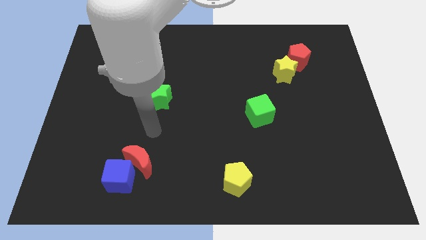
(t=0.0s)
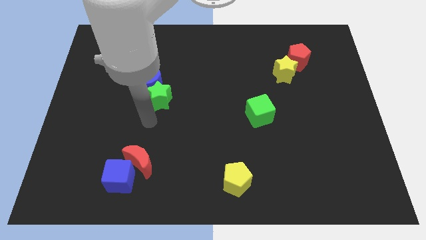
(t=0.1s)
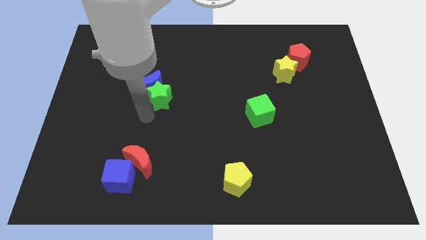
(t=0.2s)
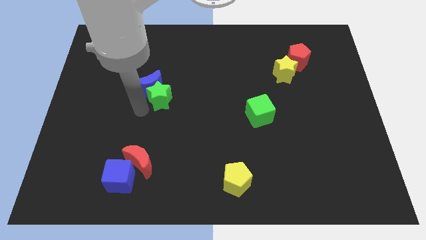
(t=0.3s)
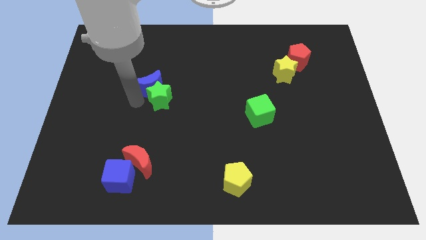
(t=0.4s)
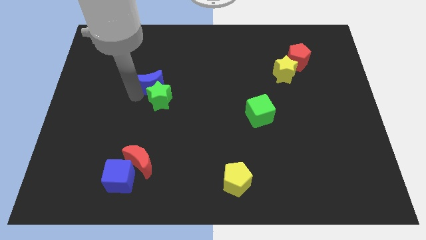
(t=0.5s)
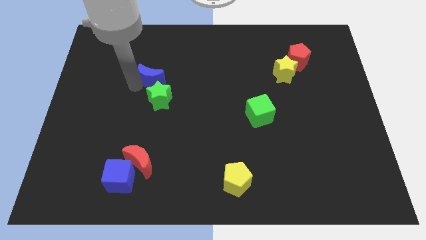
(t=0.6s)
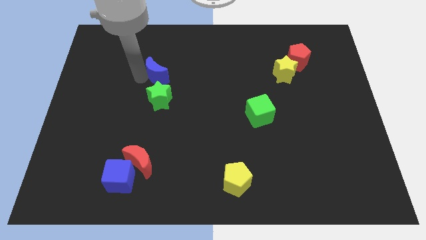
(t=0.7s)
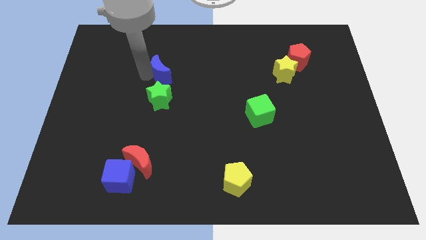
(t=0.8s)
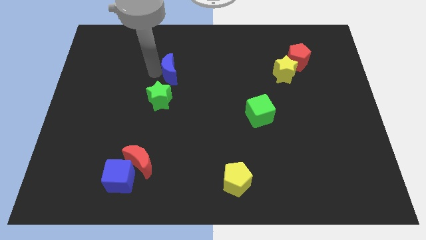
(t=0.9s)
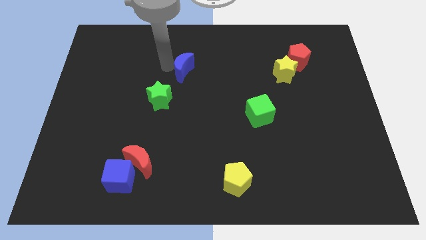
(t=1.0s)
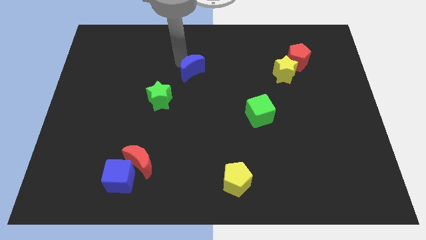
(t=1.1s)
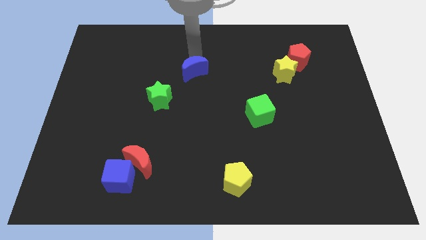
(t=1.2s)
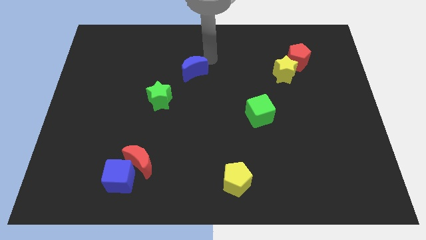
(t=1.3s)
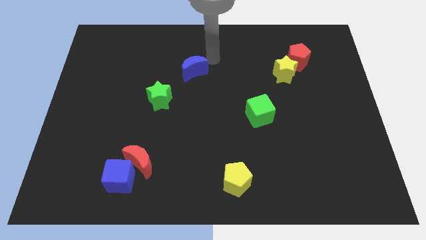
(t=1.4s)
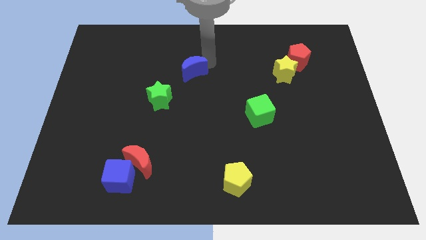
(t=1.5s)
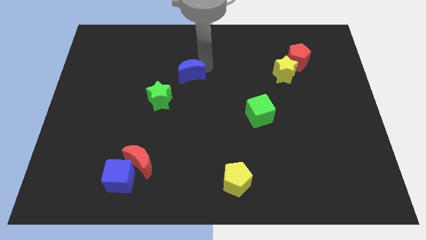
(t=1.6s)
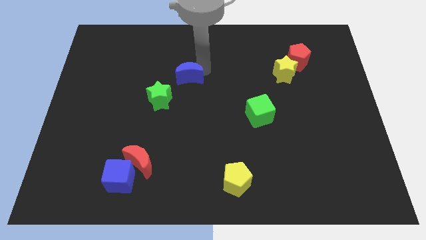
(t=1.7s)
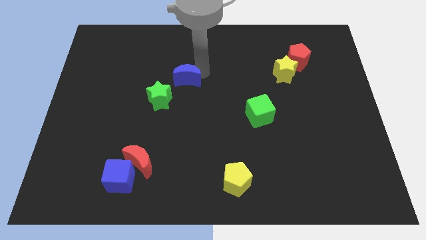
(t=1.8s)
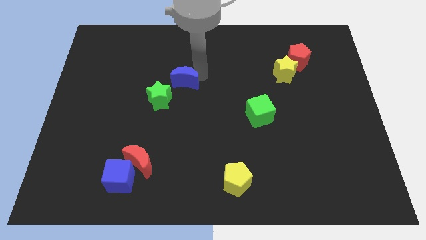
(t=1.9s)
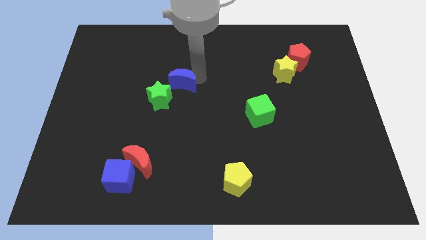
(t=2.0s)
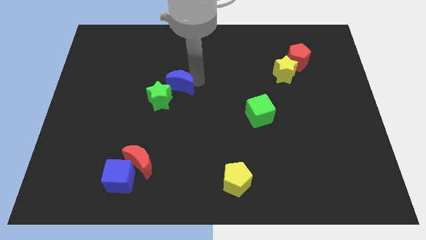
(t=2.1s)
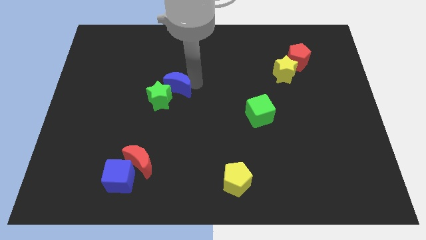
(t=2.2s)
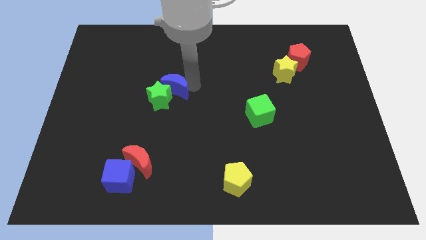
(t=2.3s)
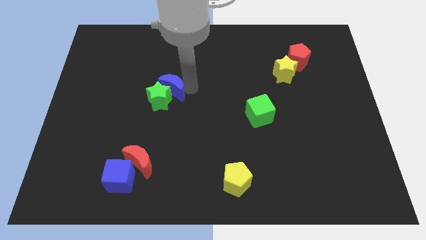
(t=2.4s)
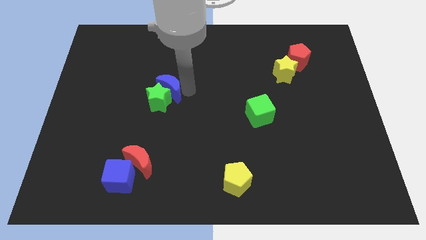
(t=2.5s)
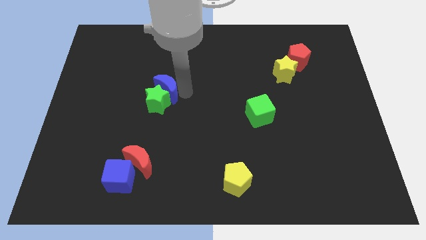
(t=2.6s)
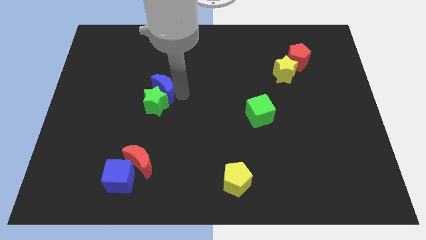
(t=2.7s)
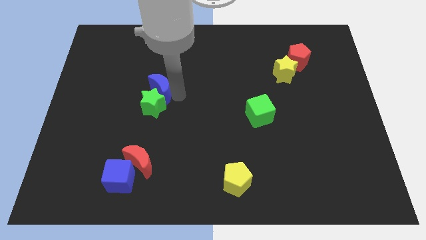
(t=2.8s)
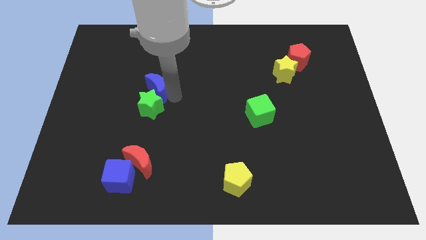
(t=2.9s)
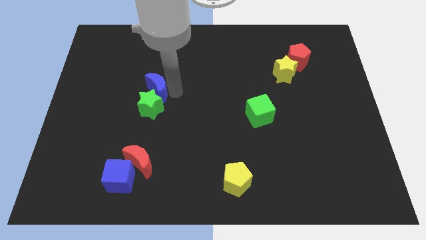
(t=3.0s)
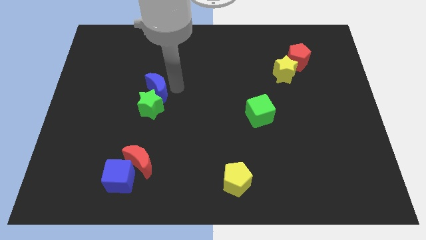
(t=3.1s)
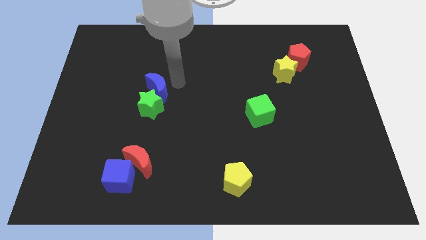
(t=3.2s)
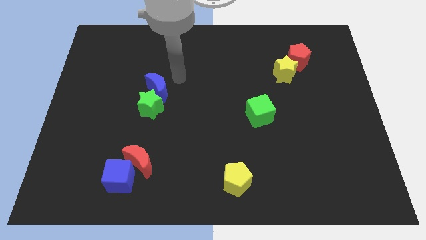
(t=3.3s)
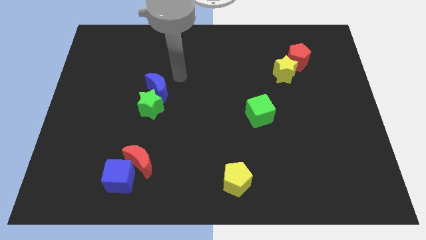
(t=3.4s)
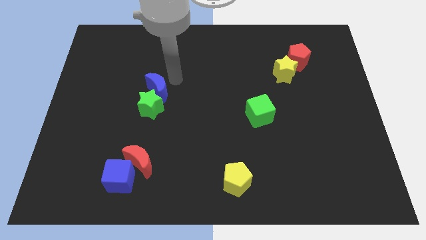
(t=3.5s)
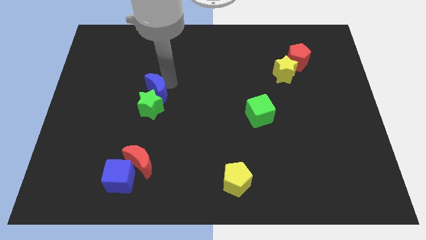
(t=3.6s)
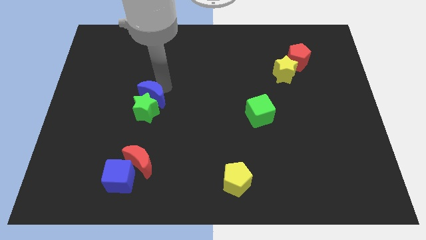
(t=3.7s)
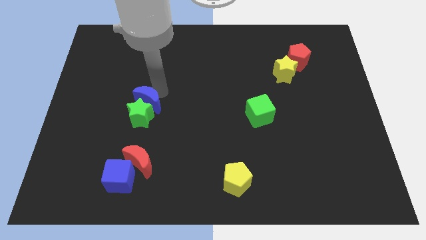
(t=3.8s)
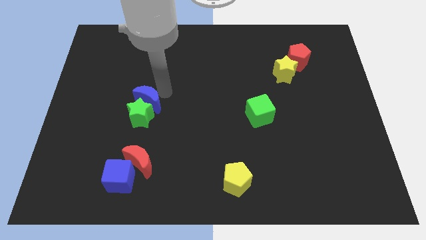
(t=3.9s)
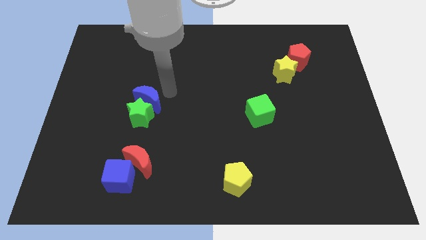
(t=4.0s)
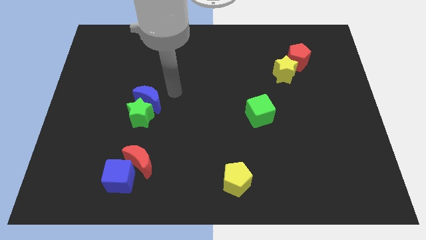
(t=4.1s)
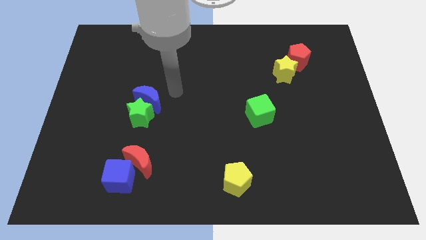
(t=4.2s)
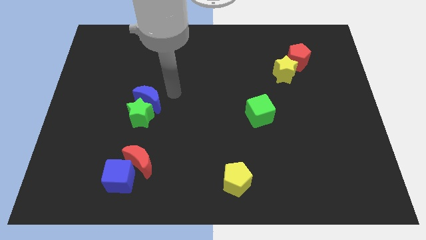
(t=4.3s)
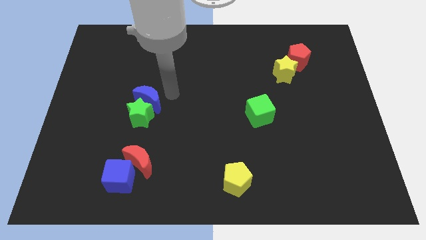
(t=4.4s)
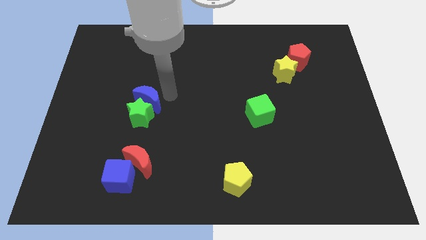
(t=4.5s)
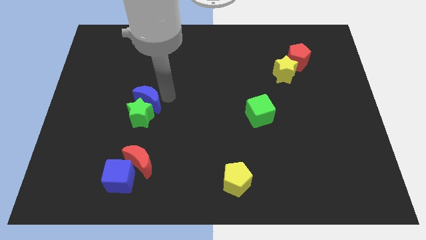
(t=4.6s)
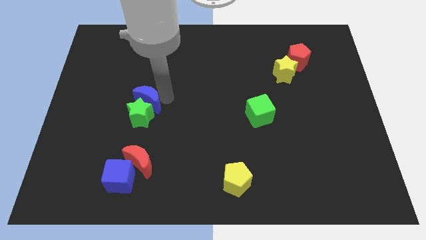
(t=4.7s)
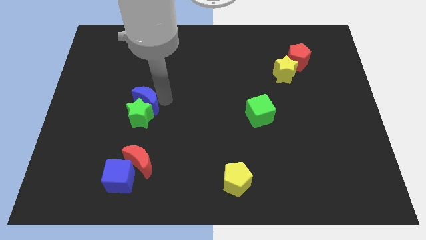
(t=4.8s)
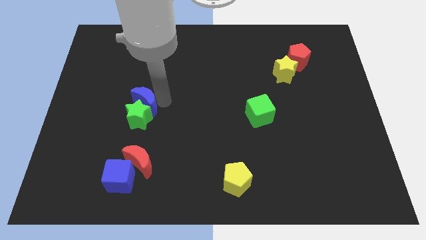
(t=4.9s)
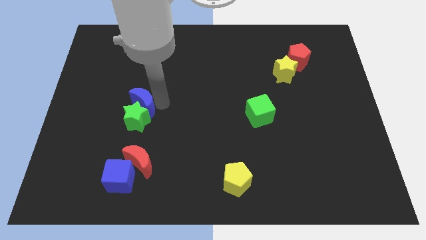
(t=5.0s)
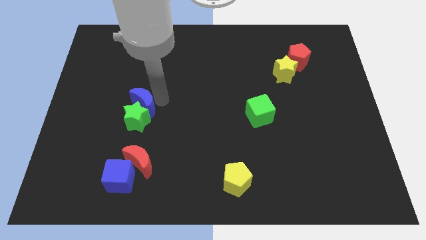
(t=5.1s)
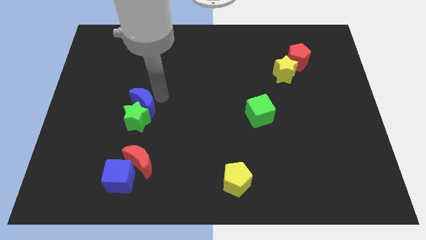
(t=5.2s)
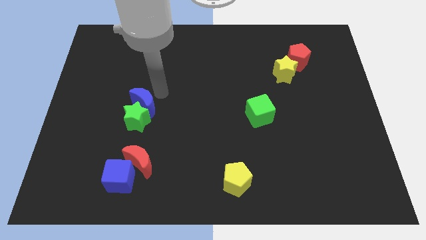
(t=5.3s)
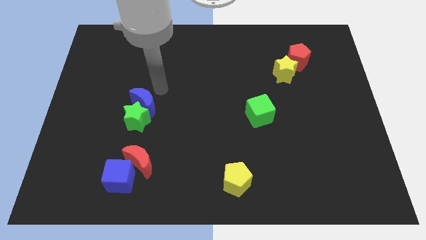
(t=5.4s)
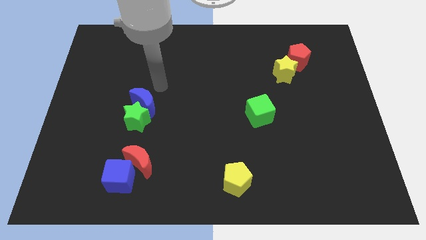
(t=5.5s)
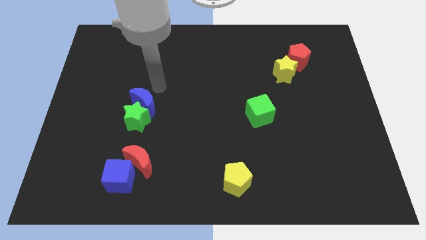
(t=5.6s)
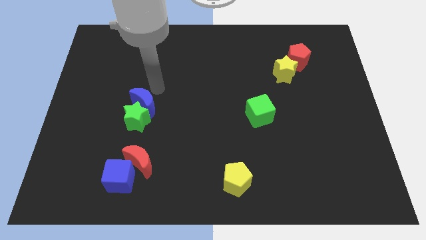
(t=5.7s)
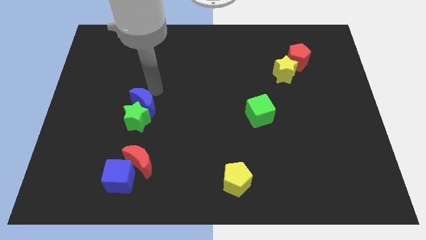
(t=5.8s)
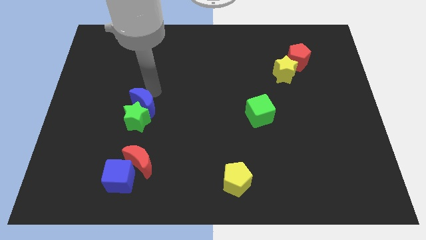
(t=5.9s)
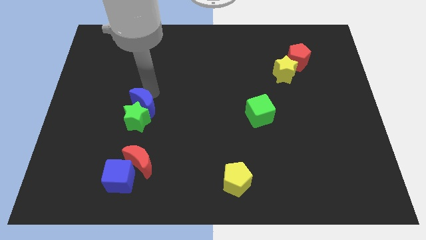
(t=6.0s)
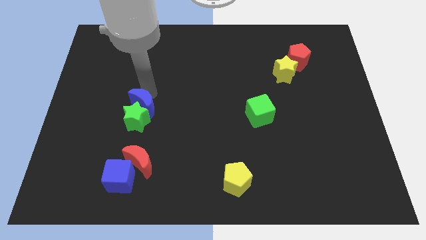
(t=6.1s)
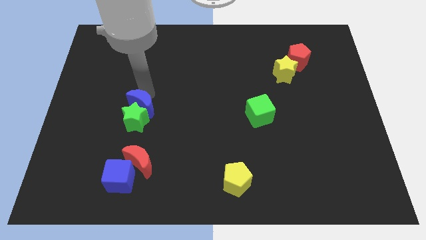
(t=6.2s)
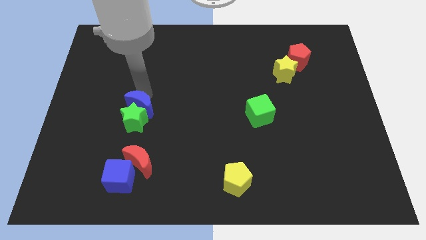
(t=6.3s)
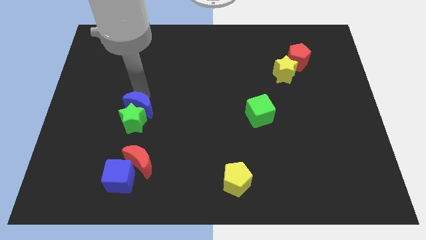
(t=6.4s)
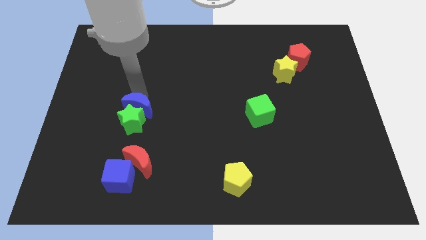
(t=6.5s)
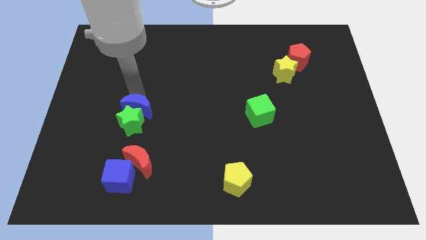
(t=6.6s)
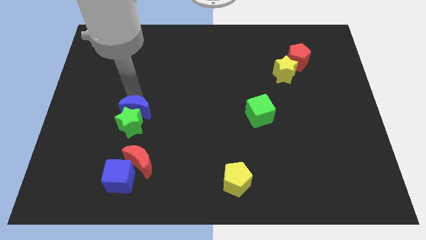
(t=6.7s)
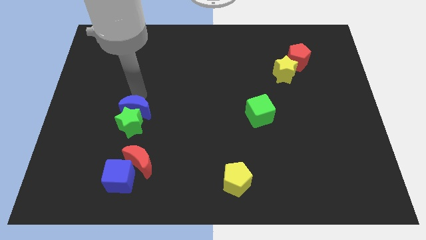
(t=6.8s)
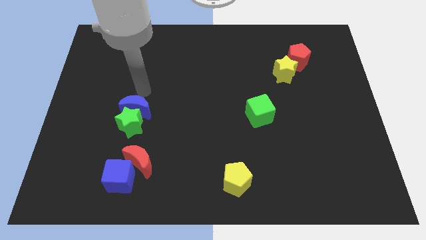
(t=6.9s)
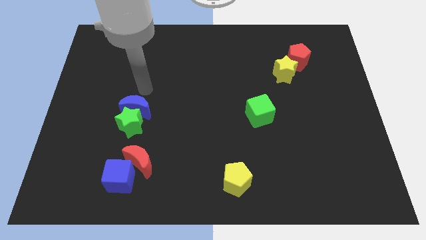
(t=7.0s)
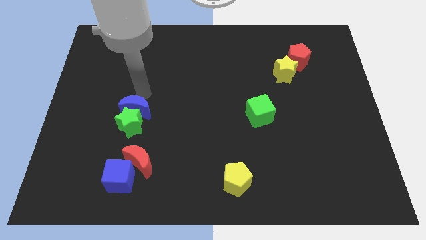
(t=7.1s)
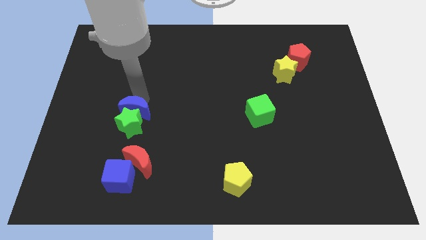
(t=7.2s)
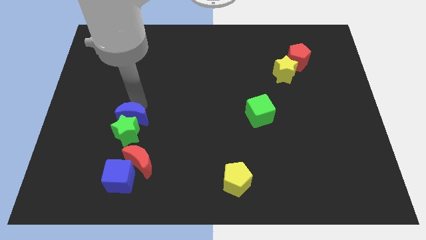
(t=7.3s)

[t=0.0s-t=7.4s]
put the blue moon to the top of the blue cube

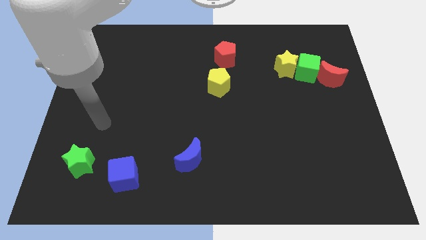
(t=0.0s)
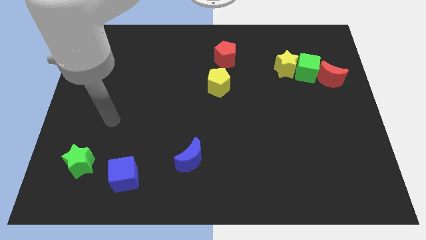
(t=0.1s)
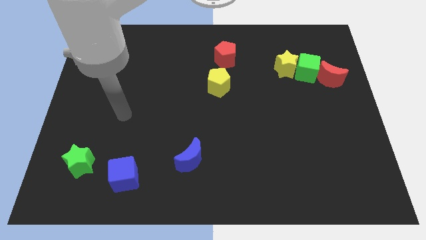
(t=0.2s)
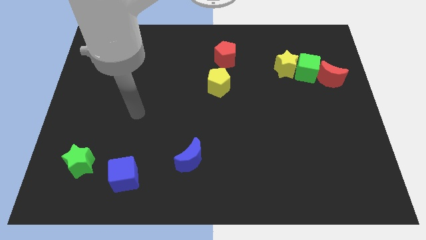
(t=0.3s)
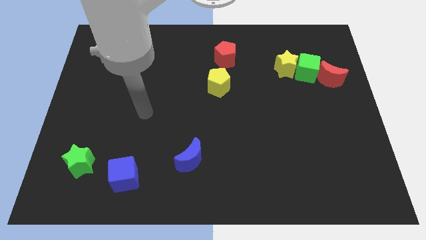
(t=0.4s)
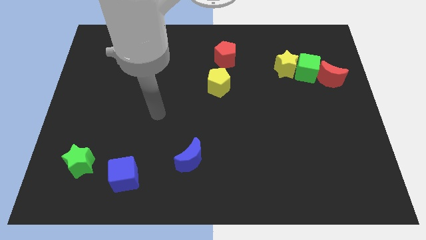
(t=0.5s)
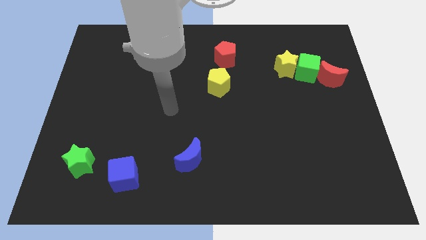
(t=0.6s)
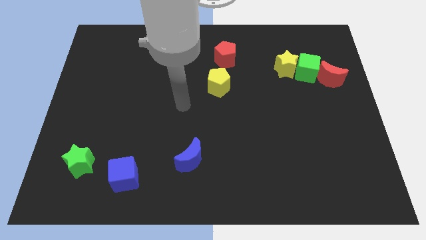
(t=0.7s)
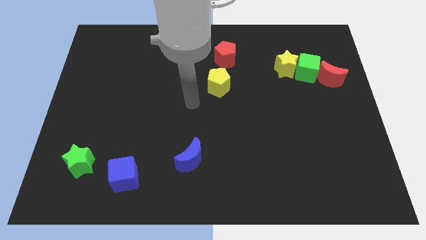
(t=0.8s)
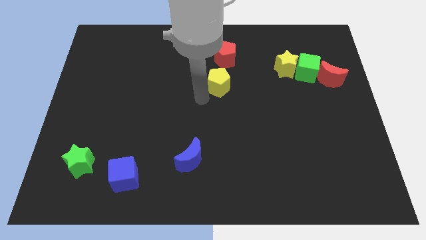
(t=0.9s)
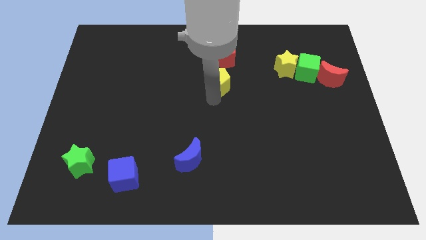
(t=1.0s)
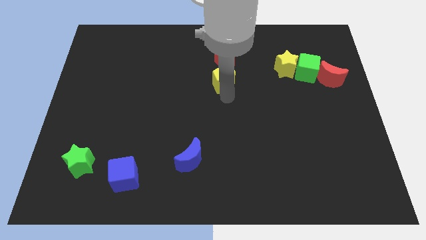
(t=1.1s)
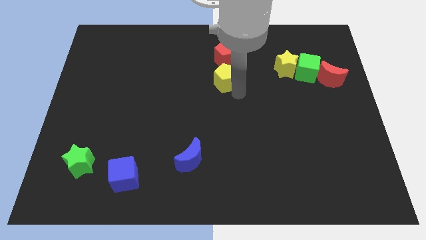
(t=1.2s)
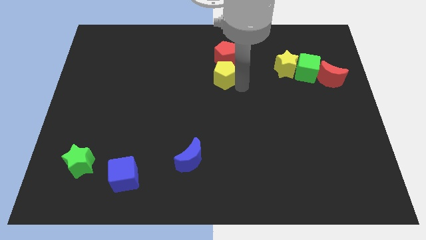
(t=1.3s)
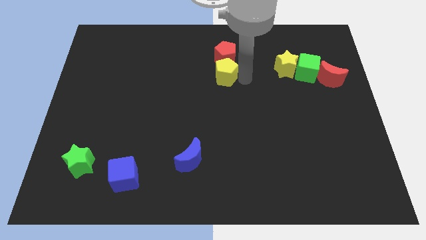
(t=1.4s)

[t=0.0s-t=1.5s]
put the red pentagon to the top left side of the yellow pentagon
